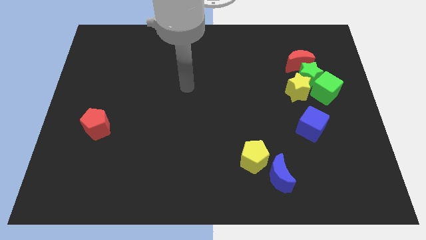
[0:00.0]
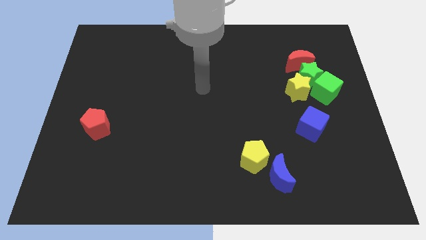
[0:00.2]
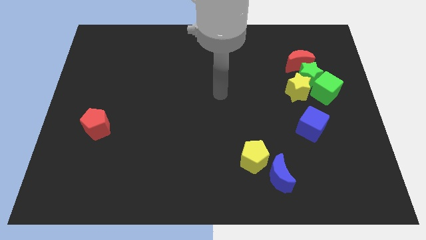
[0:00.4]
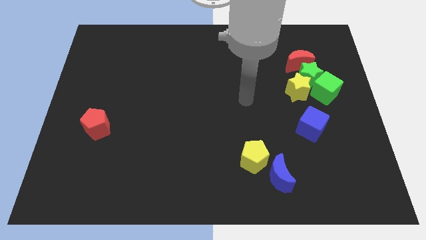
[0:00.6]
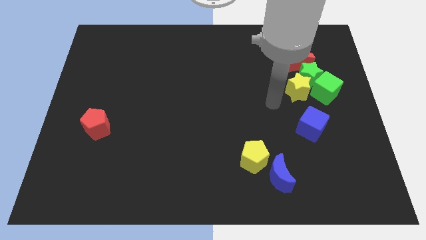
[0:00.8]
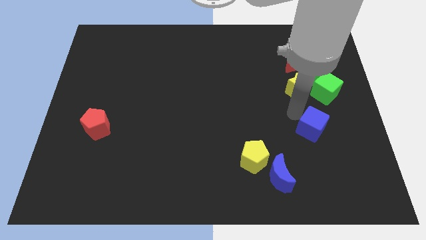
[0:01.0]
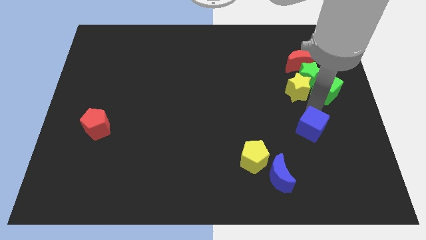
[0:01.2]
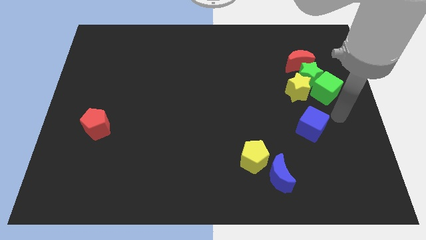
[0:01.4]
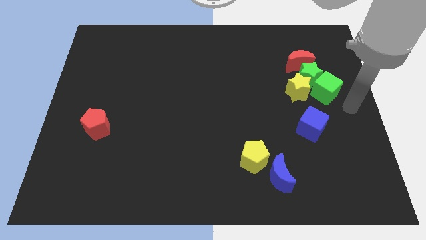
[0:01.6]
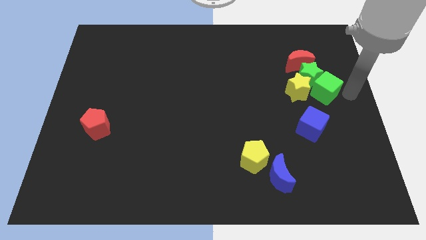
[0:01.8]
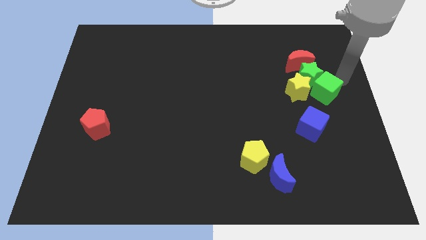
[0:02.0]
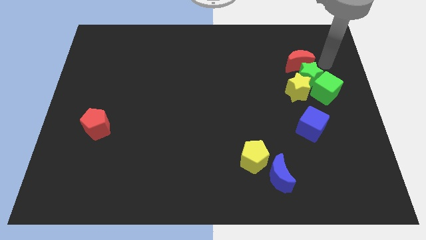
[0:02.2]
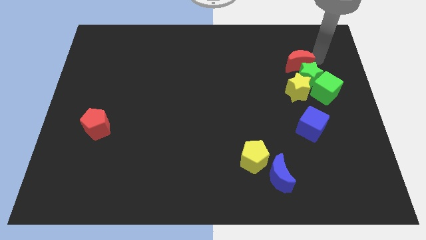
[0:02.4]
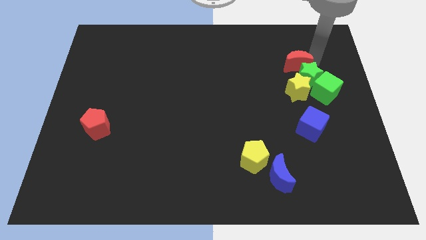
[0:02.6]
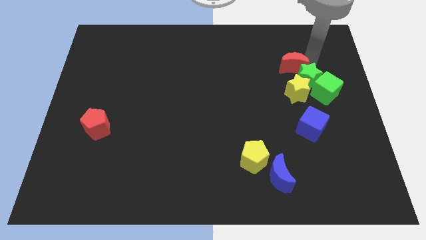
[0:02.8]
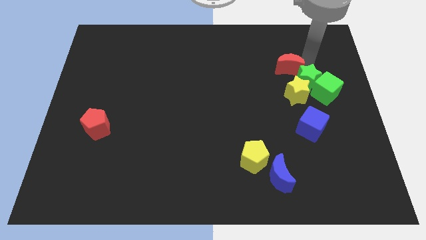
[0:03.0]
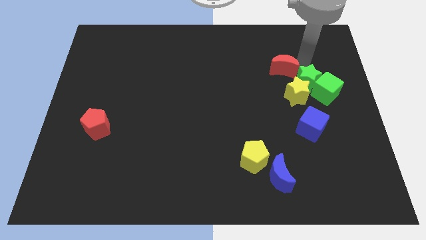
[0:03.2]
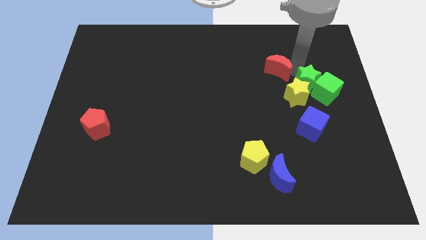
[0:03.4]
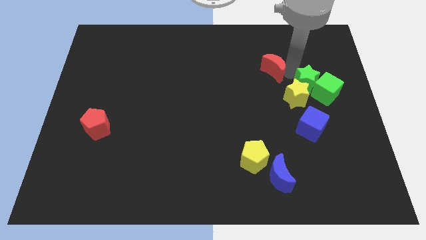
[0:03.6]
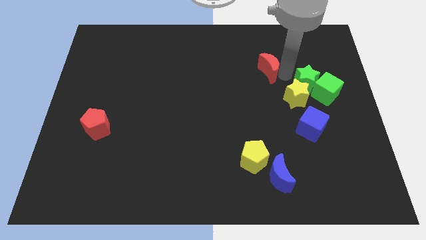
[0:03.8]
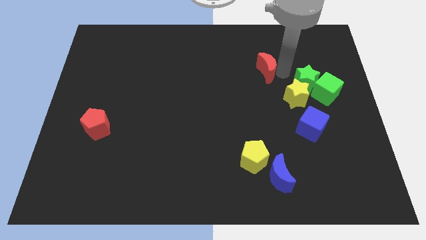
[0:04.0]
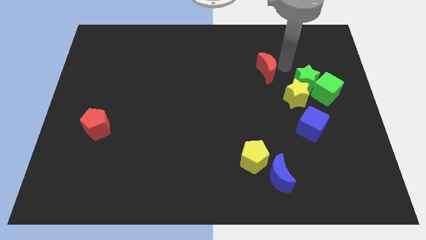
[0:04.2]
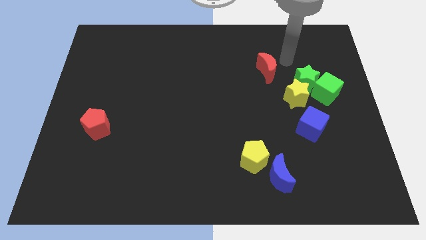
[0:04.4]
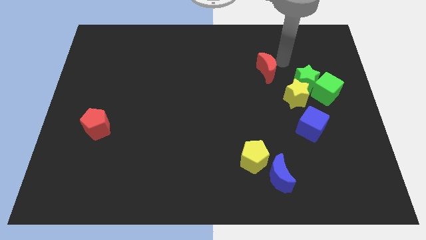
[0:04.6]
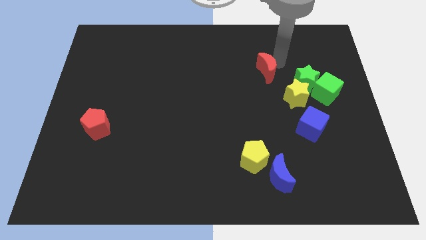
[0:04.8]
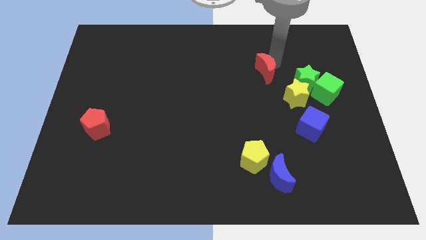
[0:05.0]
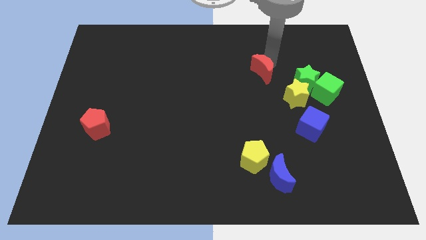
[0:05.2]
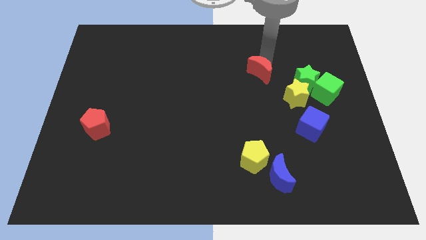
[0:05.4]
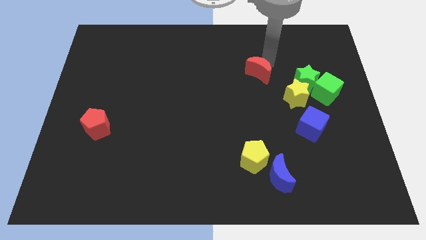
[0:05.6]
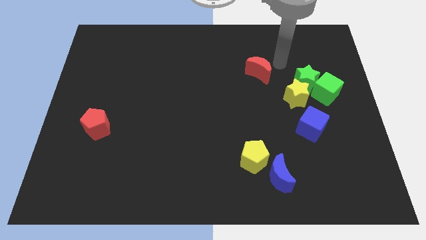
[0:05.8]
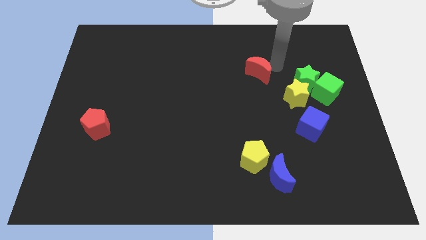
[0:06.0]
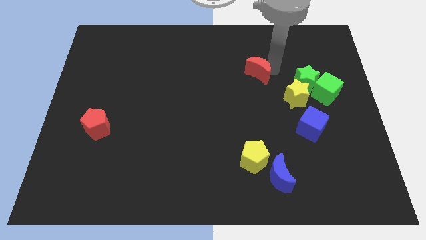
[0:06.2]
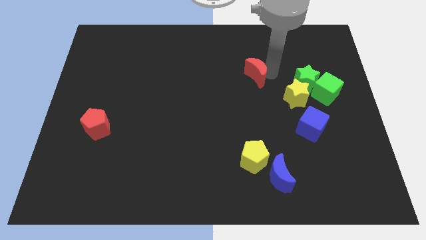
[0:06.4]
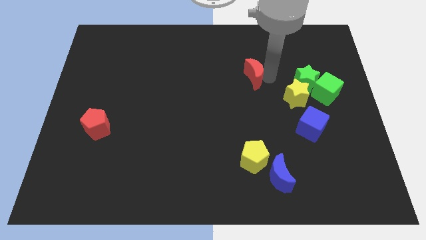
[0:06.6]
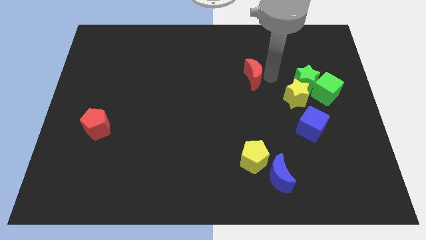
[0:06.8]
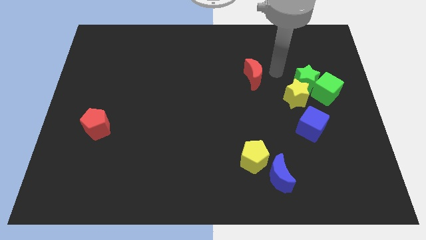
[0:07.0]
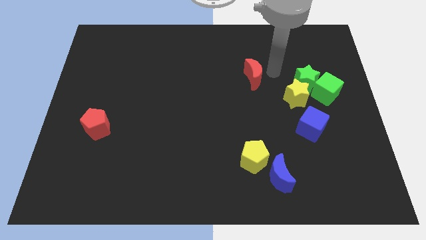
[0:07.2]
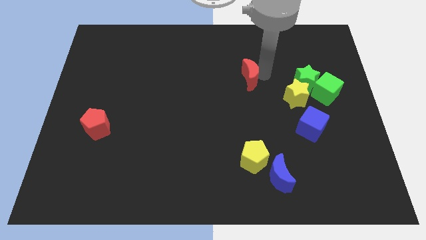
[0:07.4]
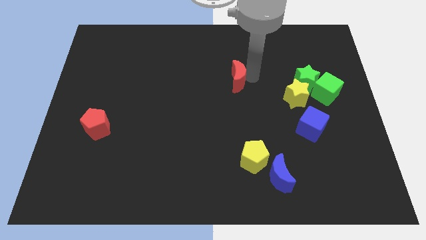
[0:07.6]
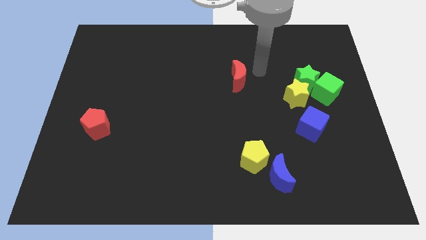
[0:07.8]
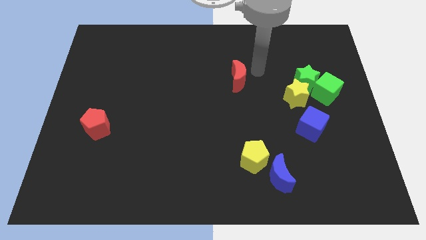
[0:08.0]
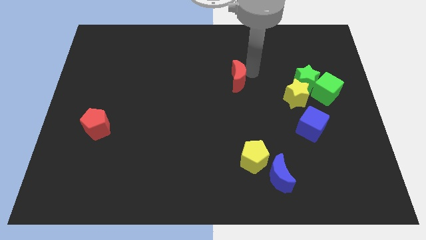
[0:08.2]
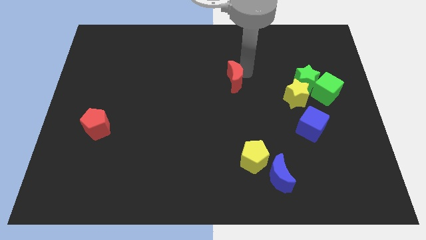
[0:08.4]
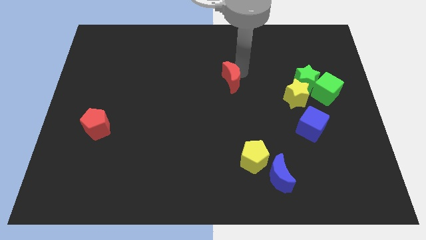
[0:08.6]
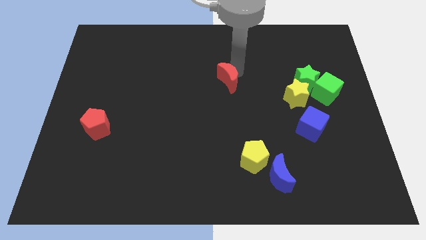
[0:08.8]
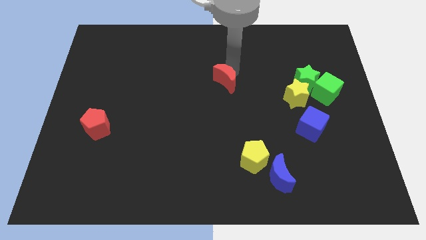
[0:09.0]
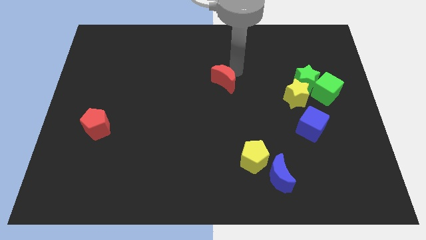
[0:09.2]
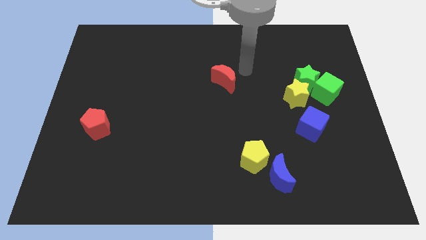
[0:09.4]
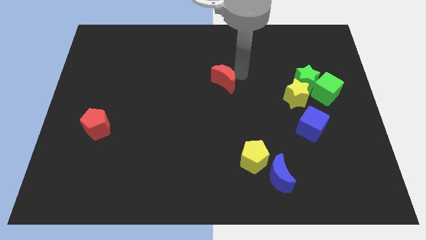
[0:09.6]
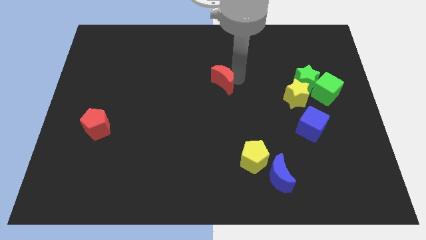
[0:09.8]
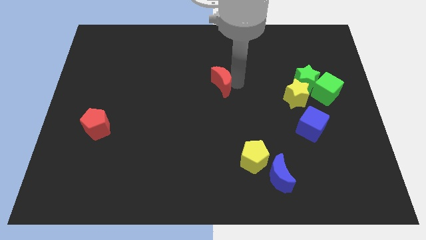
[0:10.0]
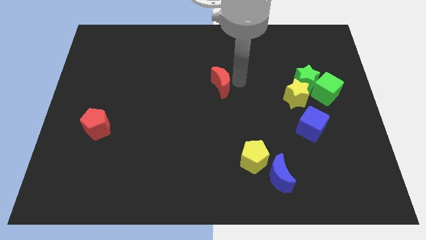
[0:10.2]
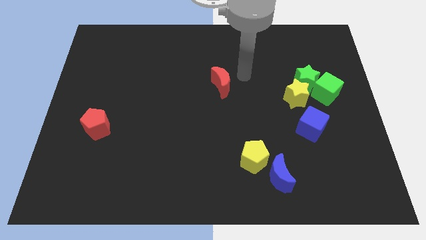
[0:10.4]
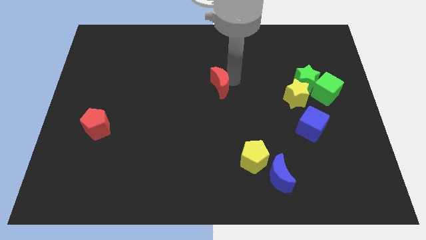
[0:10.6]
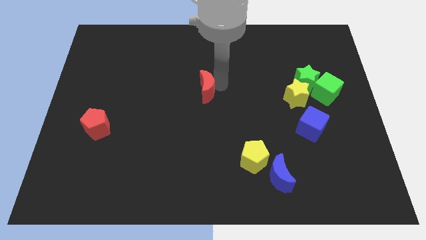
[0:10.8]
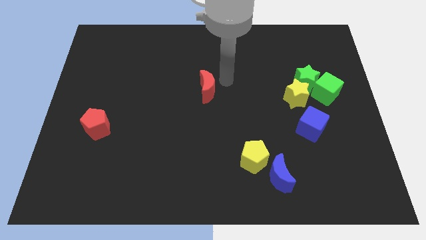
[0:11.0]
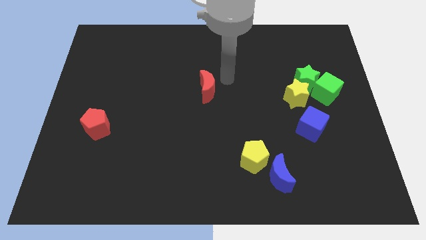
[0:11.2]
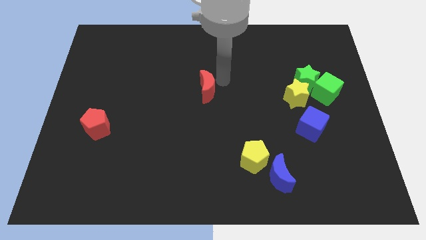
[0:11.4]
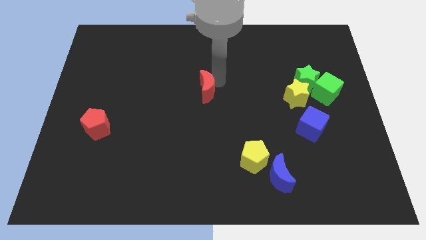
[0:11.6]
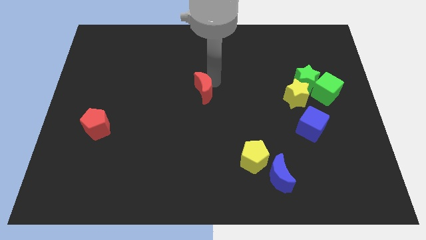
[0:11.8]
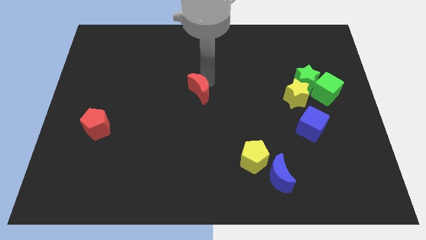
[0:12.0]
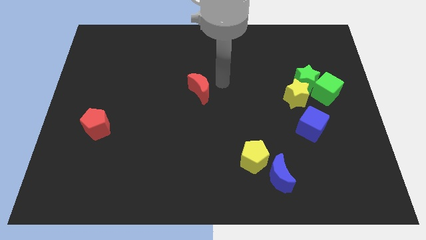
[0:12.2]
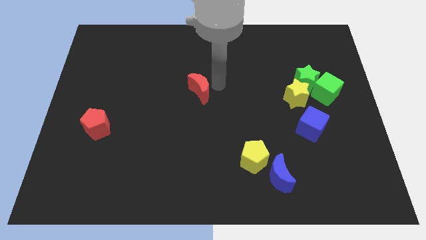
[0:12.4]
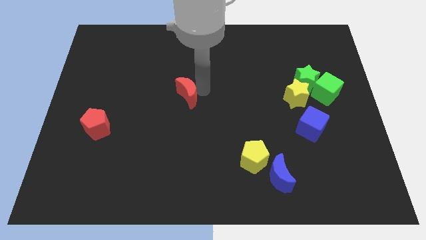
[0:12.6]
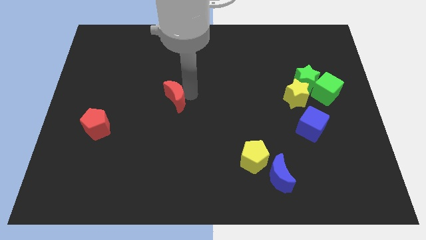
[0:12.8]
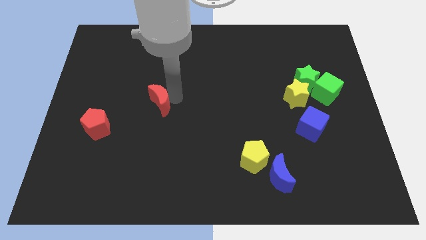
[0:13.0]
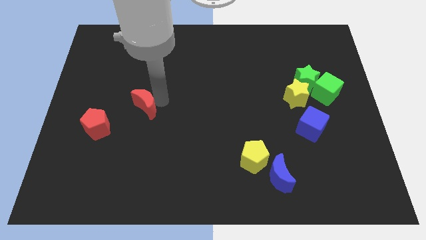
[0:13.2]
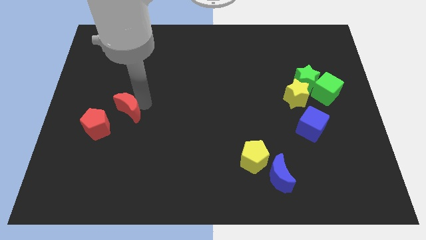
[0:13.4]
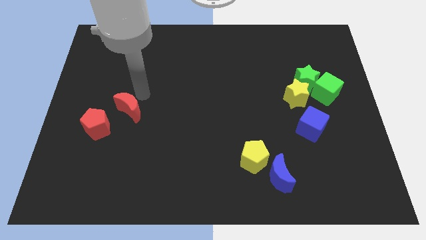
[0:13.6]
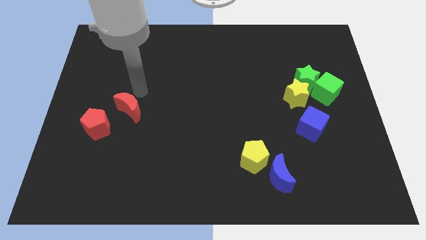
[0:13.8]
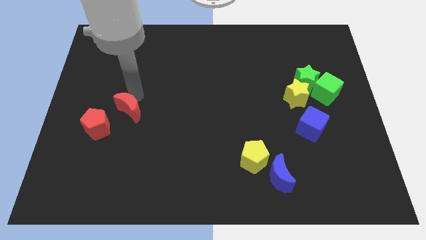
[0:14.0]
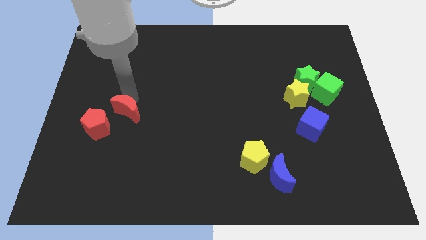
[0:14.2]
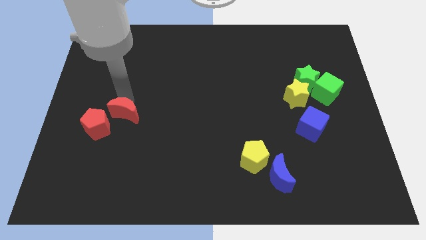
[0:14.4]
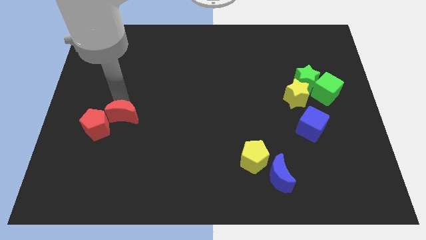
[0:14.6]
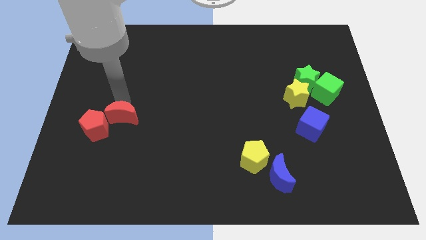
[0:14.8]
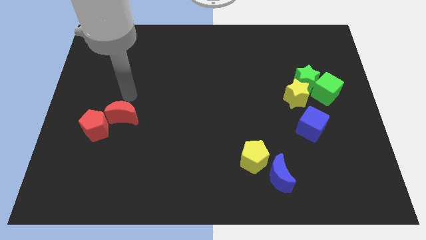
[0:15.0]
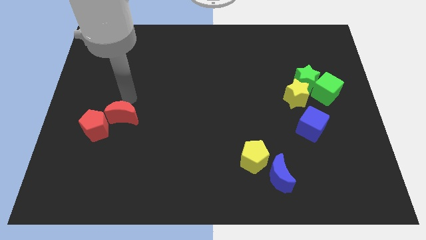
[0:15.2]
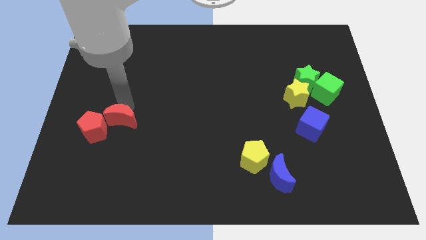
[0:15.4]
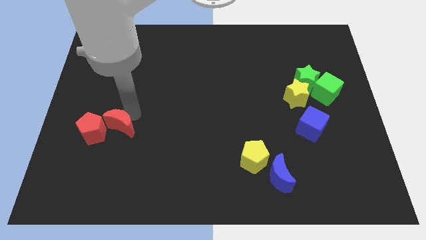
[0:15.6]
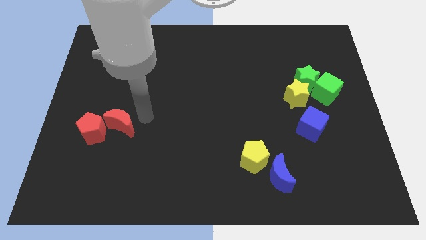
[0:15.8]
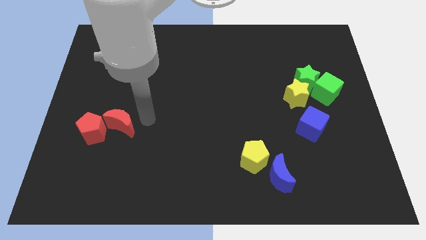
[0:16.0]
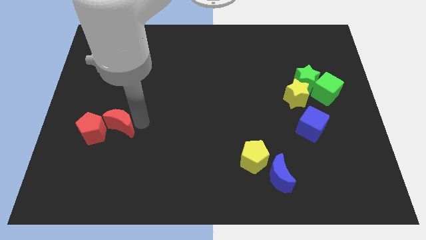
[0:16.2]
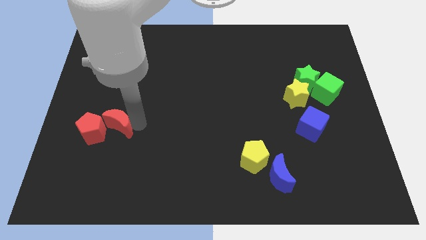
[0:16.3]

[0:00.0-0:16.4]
slide the red moon towards the red pentagon
